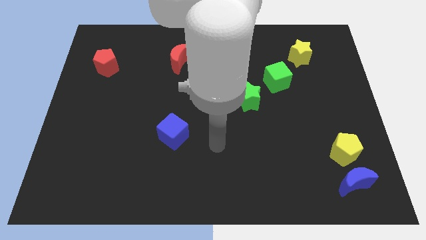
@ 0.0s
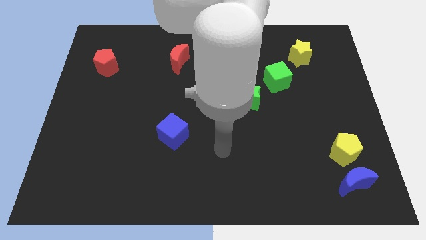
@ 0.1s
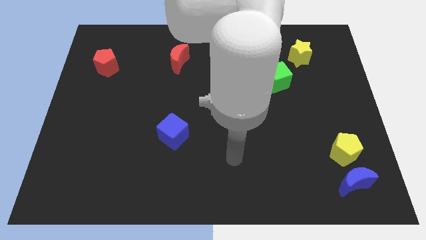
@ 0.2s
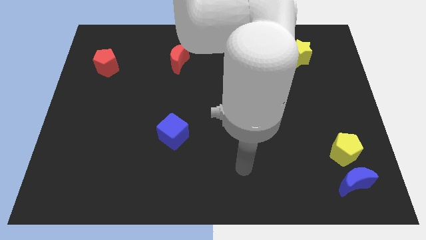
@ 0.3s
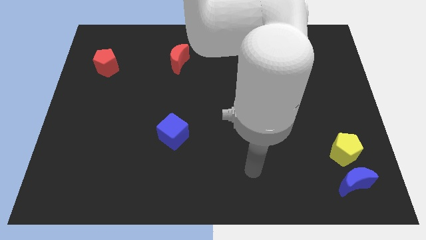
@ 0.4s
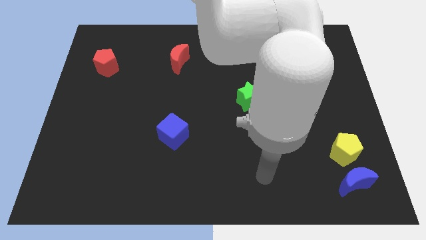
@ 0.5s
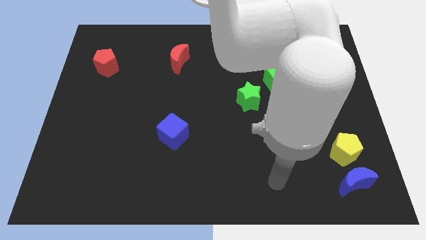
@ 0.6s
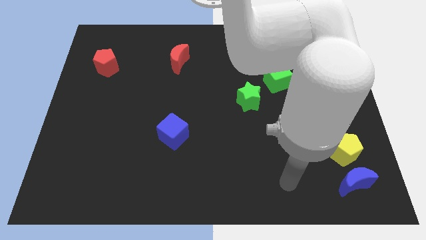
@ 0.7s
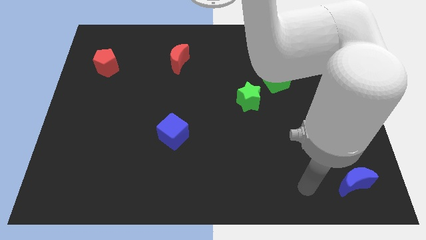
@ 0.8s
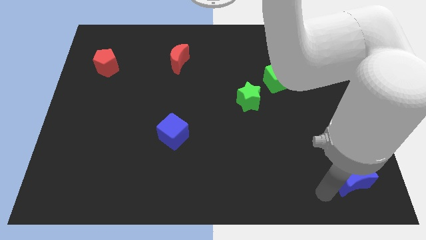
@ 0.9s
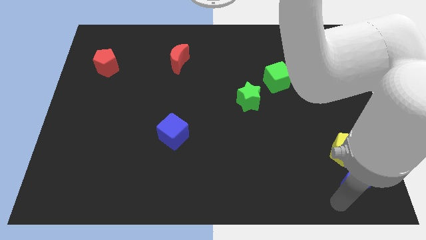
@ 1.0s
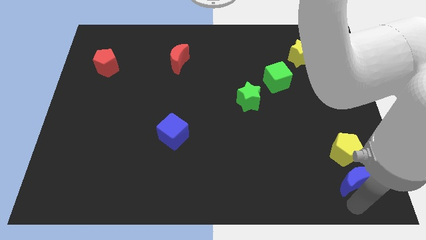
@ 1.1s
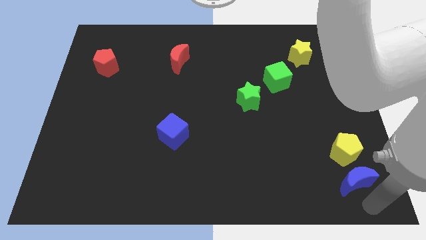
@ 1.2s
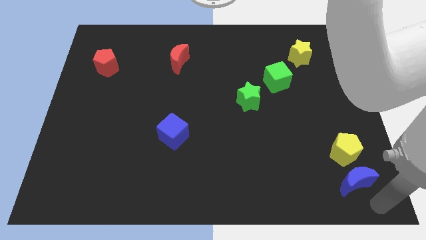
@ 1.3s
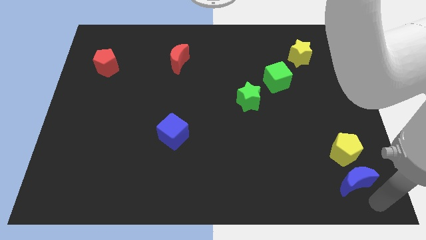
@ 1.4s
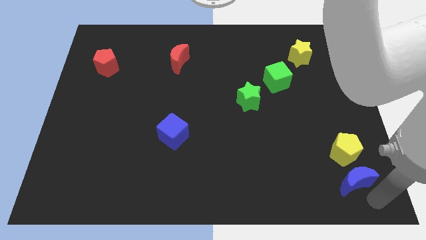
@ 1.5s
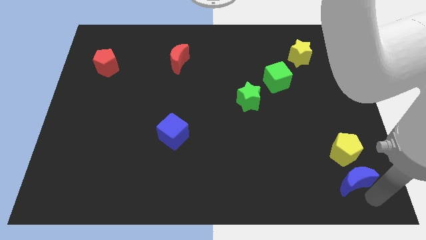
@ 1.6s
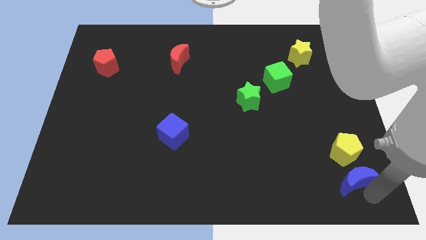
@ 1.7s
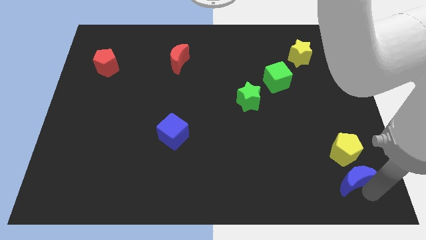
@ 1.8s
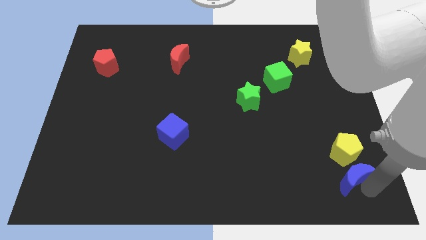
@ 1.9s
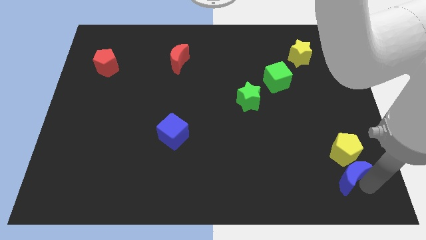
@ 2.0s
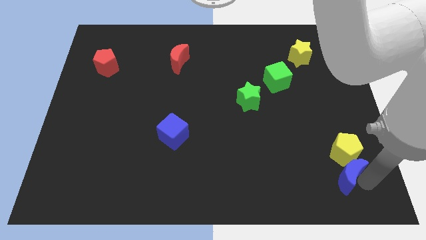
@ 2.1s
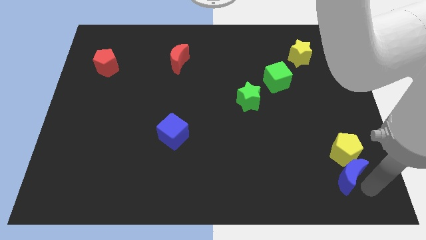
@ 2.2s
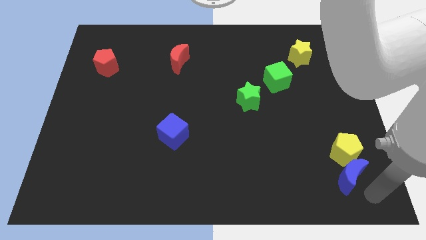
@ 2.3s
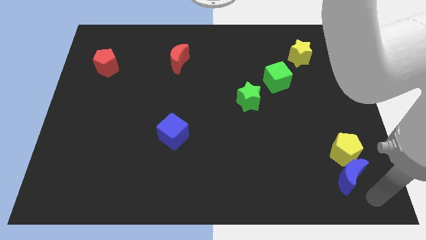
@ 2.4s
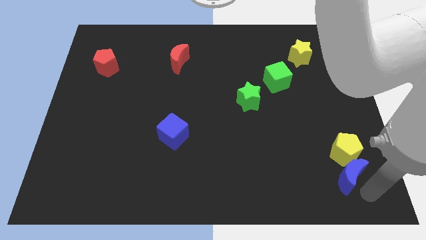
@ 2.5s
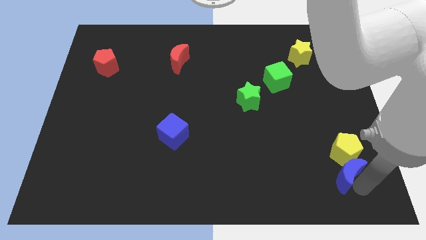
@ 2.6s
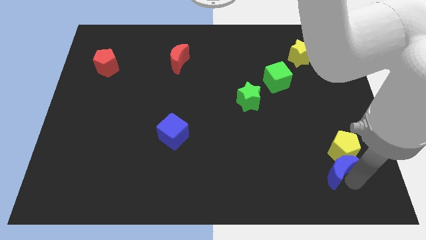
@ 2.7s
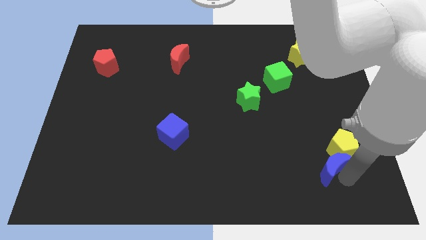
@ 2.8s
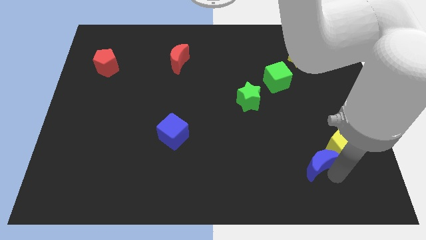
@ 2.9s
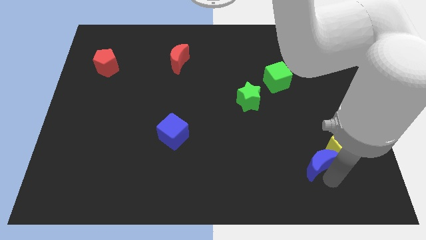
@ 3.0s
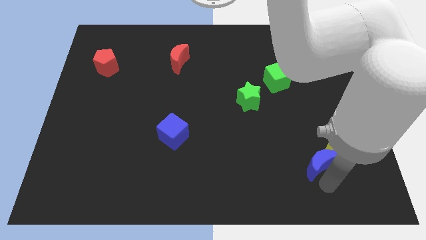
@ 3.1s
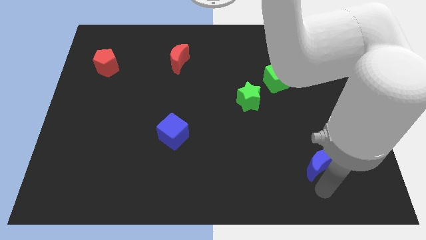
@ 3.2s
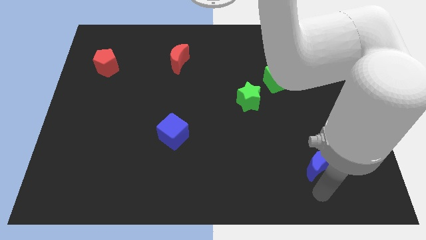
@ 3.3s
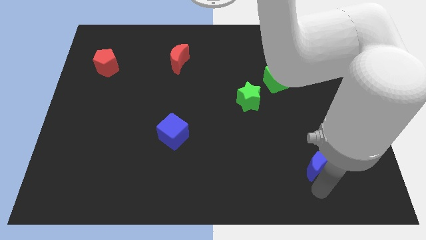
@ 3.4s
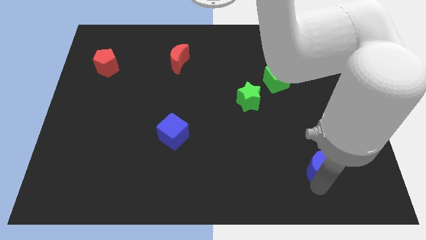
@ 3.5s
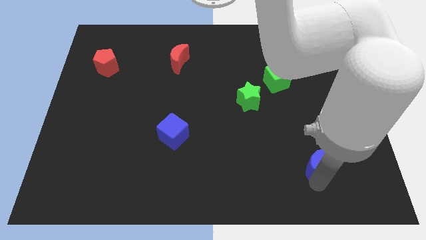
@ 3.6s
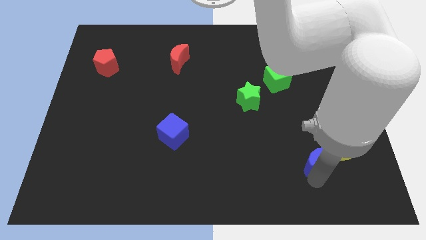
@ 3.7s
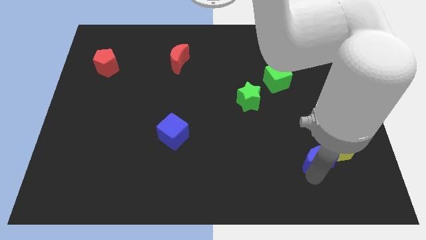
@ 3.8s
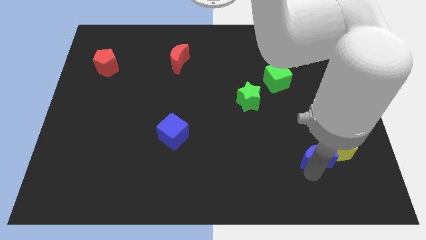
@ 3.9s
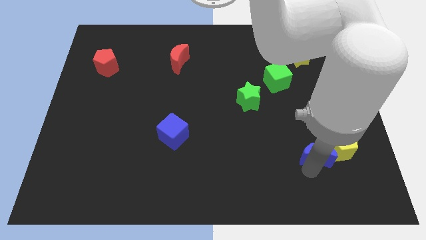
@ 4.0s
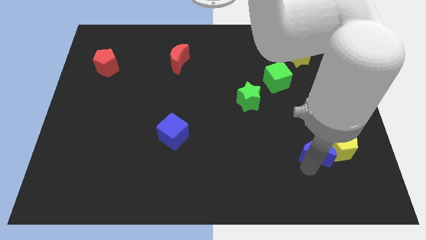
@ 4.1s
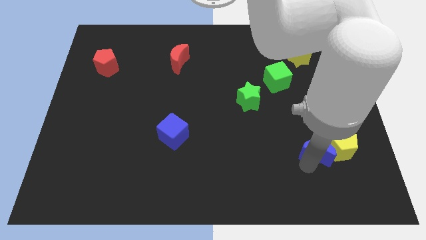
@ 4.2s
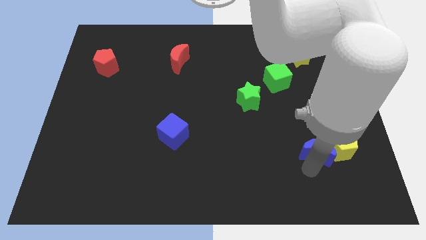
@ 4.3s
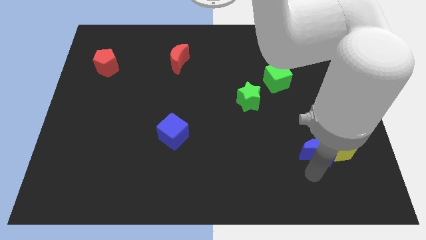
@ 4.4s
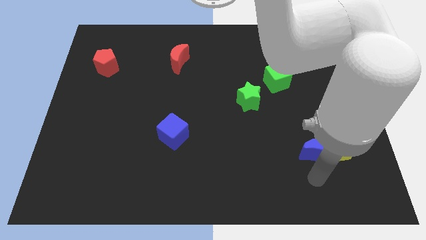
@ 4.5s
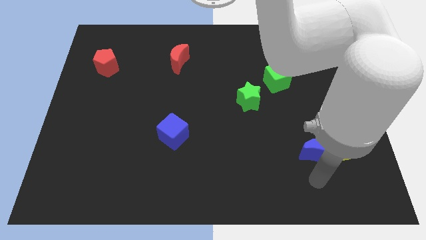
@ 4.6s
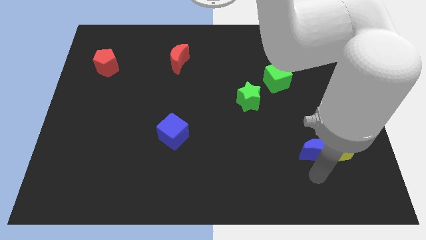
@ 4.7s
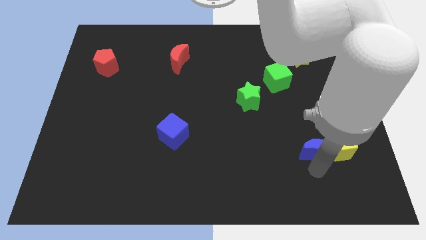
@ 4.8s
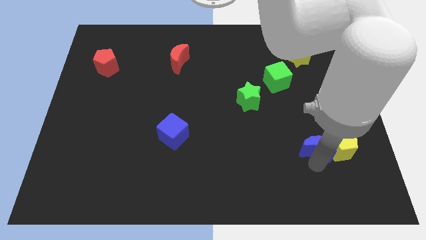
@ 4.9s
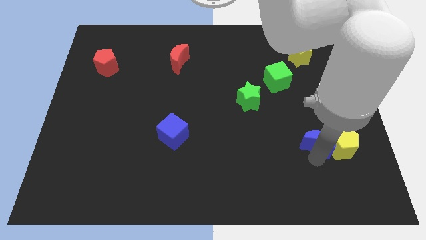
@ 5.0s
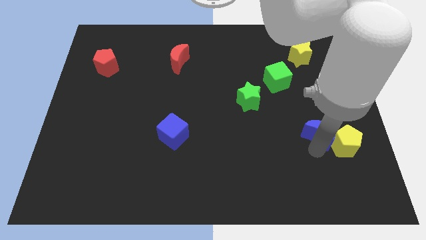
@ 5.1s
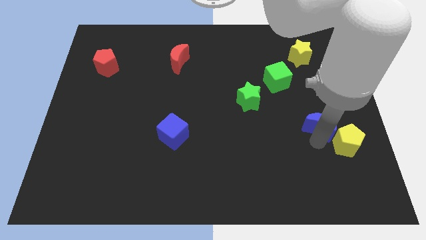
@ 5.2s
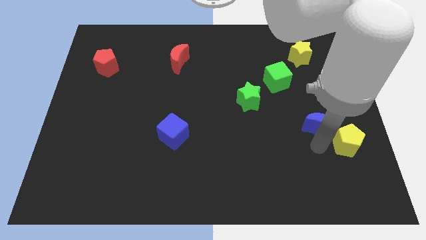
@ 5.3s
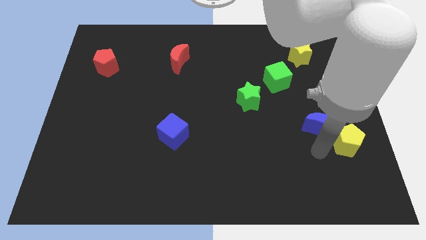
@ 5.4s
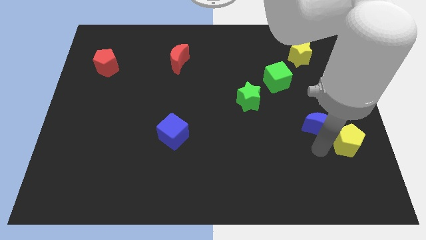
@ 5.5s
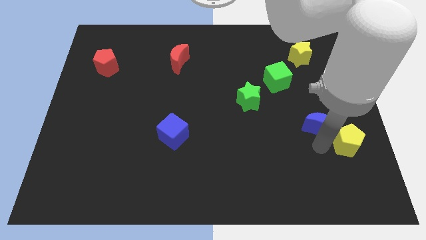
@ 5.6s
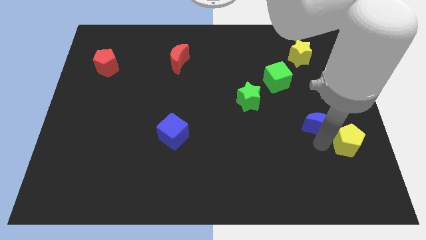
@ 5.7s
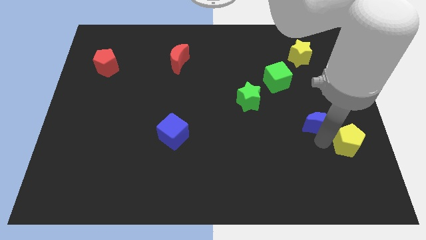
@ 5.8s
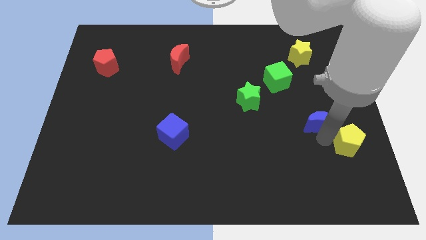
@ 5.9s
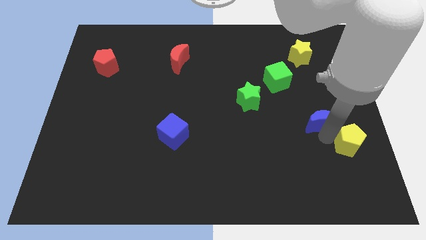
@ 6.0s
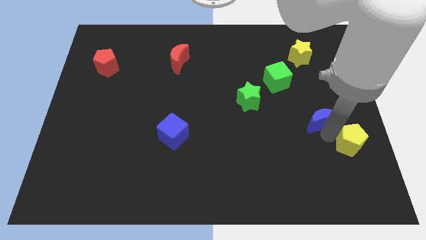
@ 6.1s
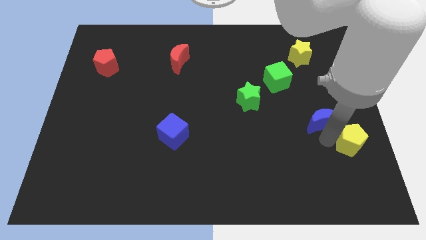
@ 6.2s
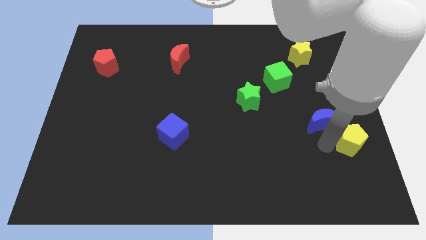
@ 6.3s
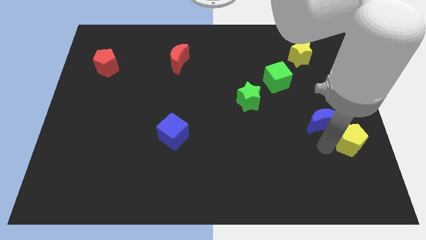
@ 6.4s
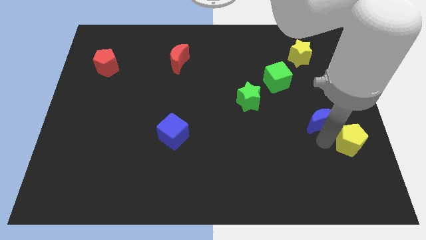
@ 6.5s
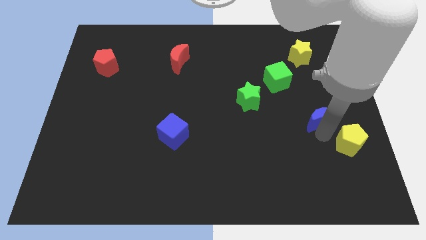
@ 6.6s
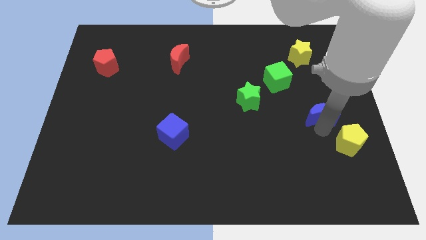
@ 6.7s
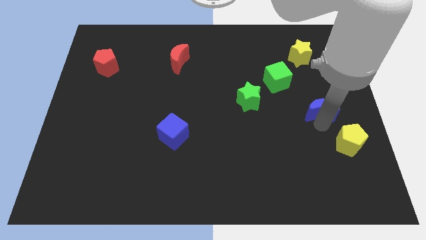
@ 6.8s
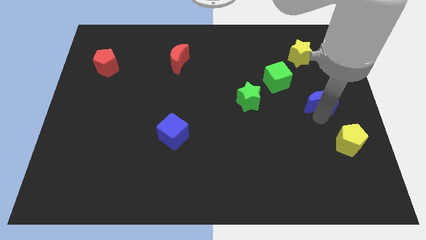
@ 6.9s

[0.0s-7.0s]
slide the blue moon up

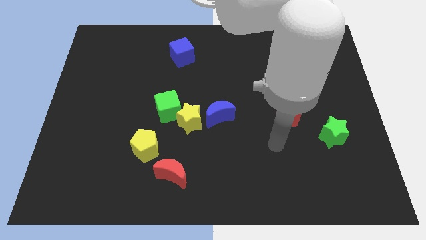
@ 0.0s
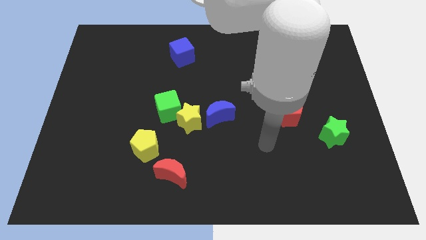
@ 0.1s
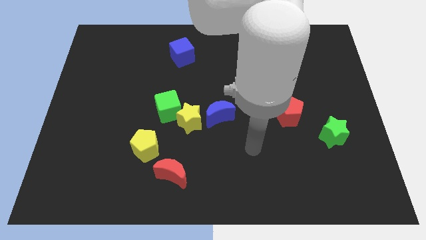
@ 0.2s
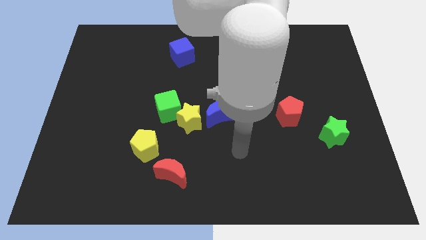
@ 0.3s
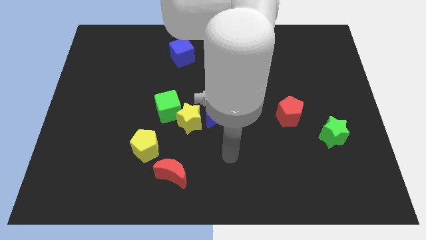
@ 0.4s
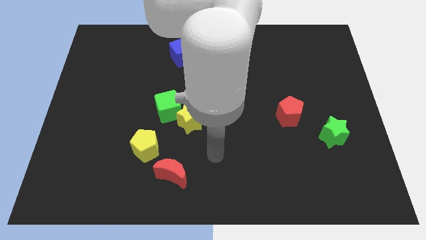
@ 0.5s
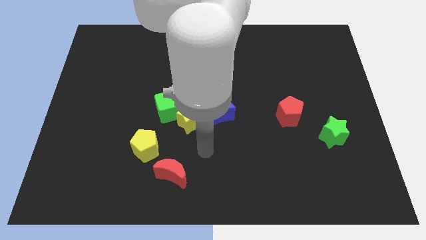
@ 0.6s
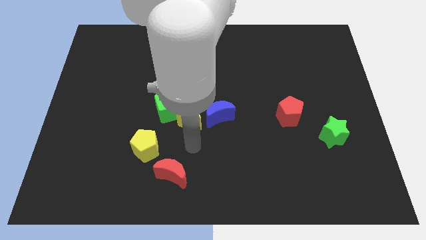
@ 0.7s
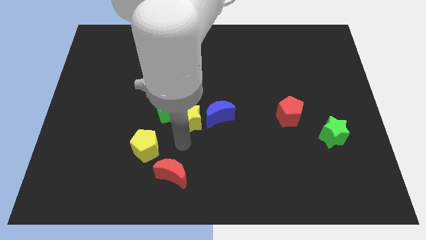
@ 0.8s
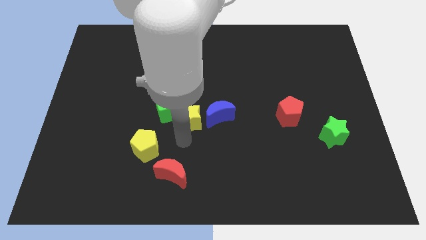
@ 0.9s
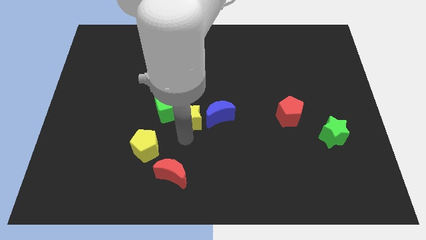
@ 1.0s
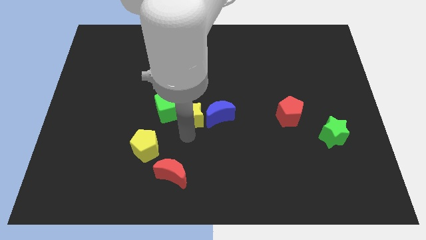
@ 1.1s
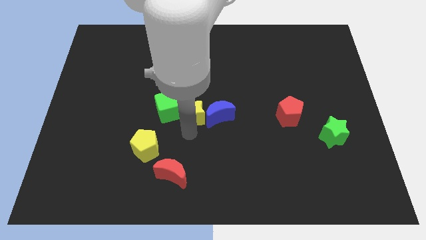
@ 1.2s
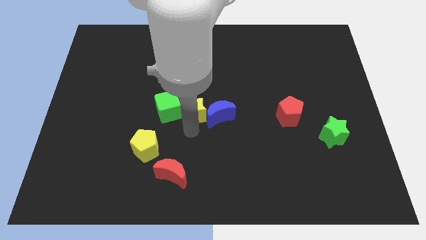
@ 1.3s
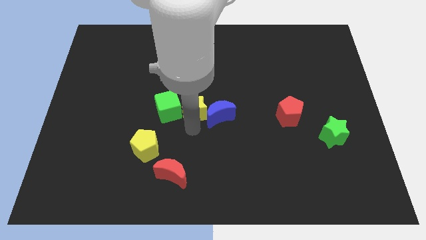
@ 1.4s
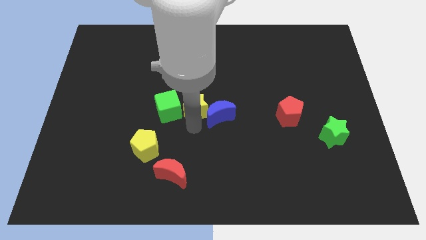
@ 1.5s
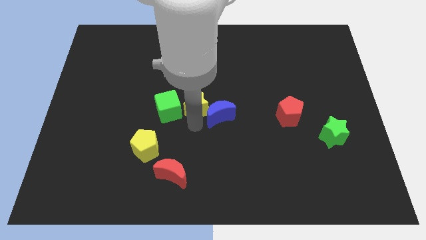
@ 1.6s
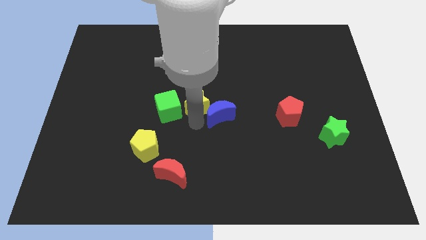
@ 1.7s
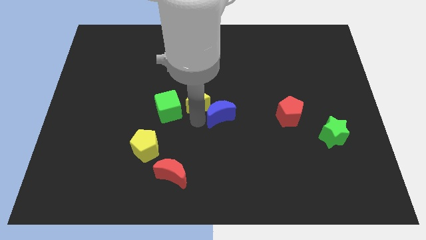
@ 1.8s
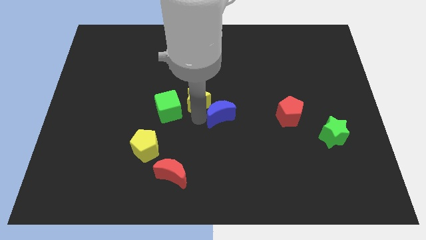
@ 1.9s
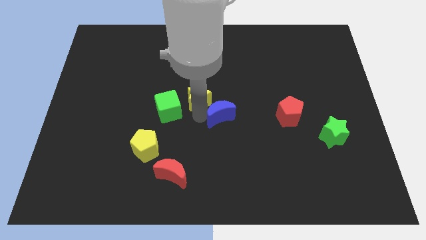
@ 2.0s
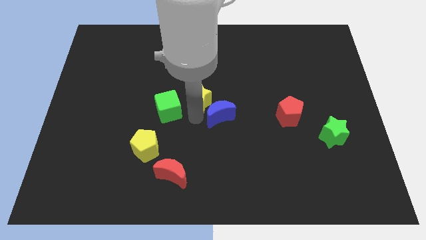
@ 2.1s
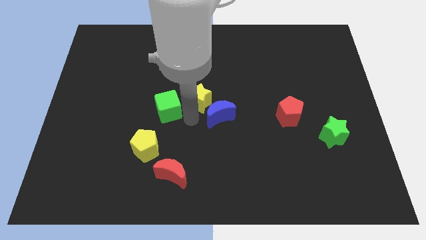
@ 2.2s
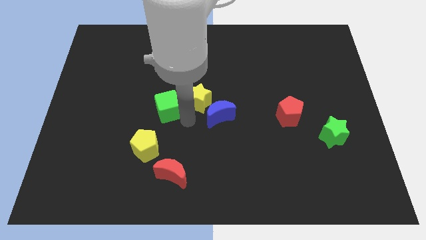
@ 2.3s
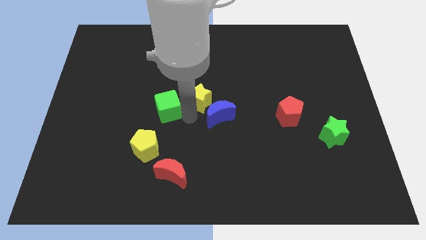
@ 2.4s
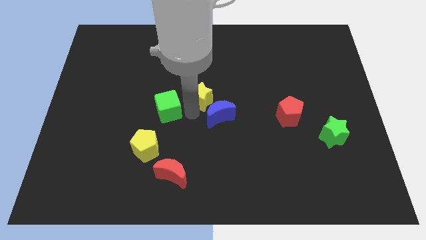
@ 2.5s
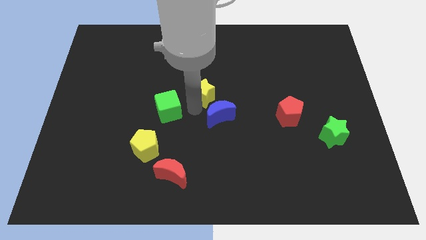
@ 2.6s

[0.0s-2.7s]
push the yellow star a little bit up and to the right diagonally
